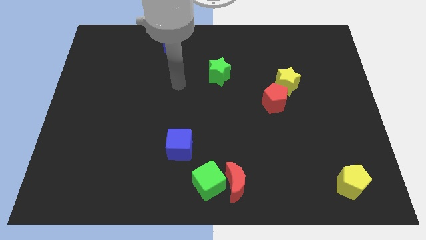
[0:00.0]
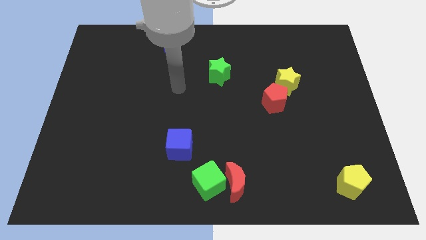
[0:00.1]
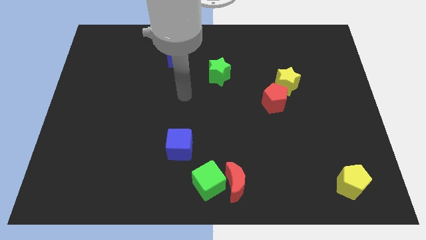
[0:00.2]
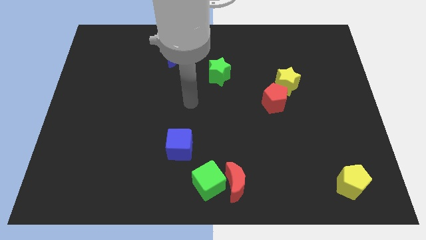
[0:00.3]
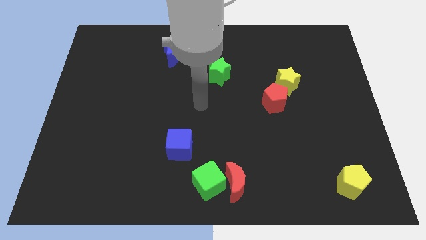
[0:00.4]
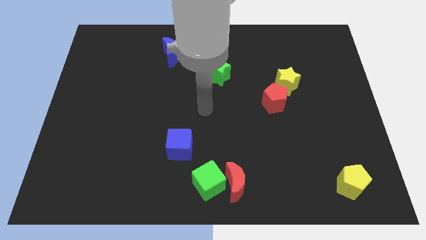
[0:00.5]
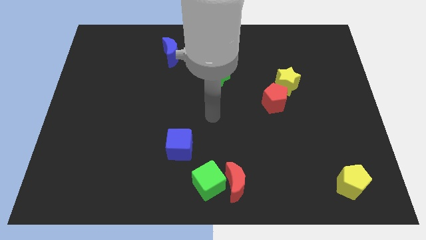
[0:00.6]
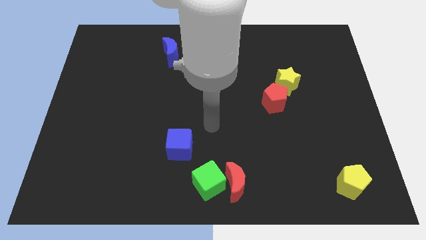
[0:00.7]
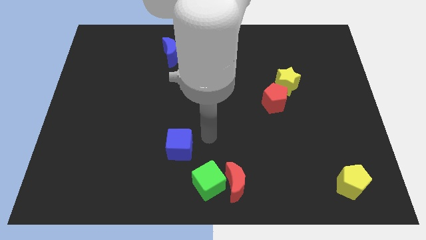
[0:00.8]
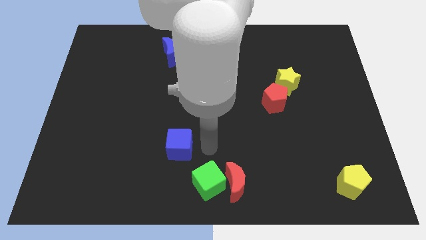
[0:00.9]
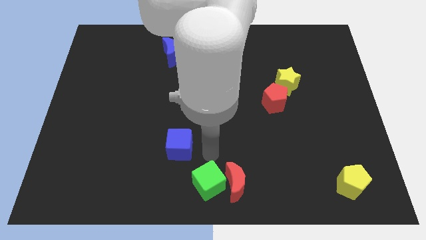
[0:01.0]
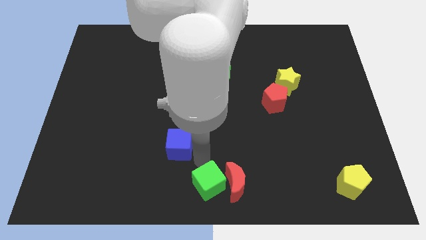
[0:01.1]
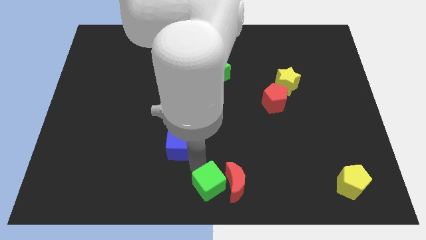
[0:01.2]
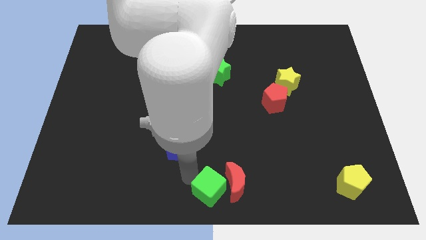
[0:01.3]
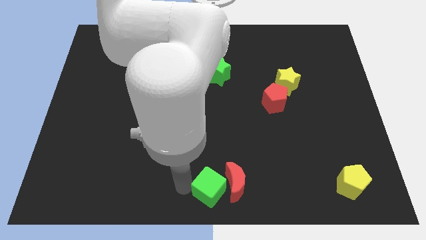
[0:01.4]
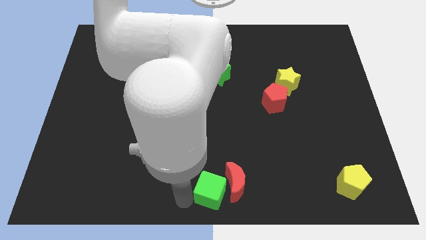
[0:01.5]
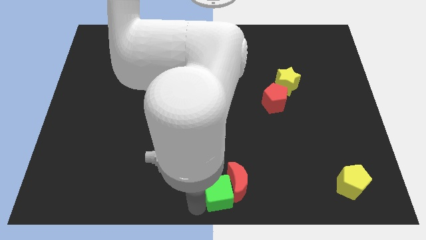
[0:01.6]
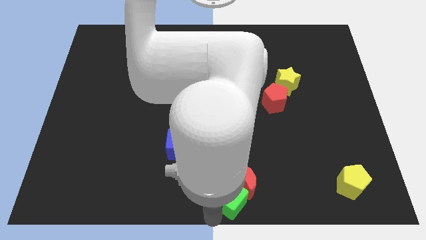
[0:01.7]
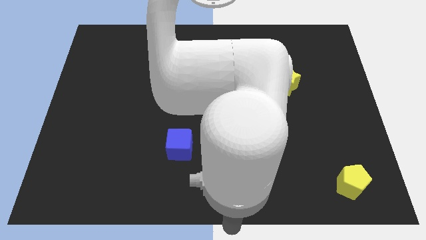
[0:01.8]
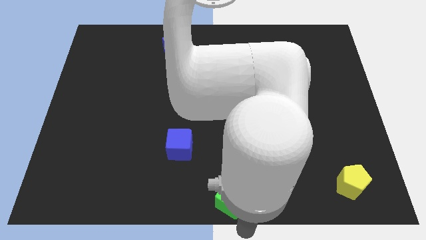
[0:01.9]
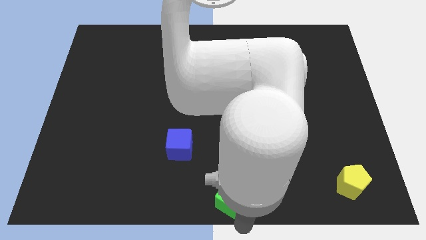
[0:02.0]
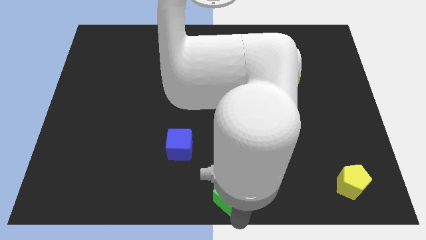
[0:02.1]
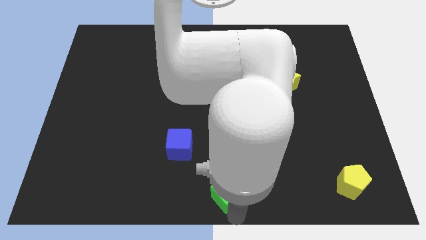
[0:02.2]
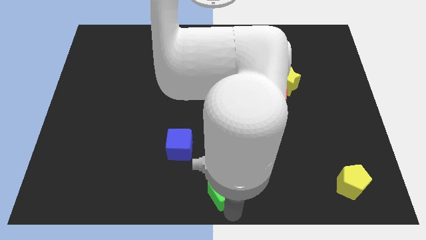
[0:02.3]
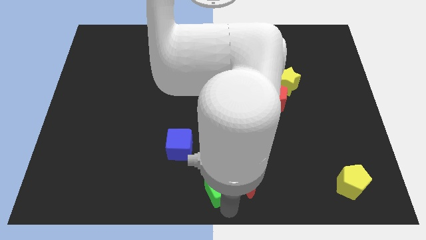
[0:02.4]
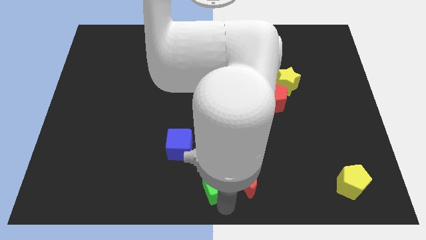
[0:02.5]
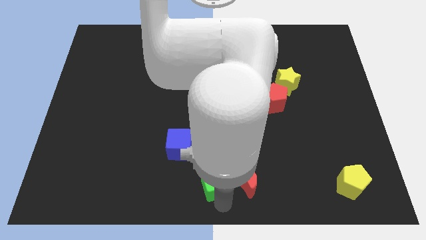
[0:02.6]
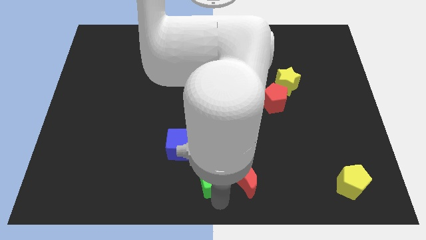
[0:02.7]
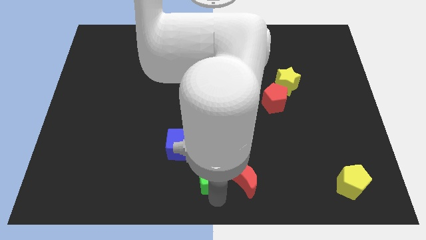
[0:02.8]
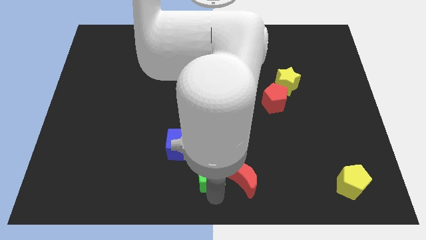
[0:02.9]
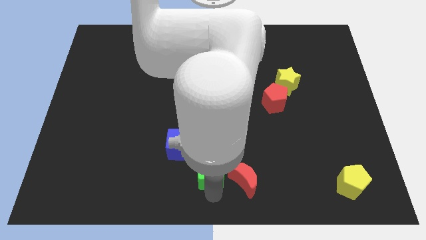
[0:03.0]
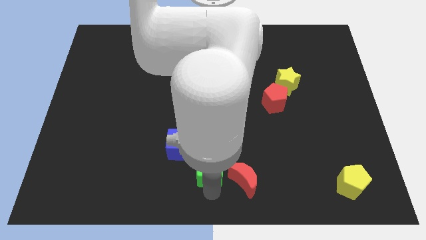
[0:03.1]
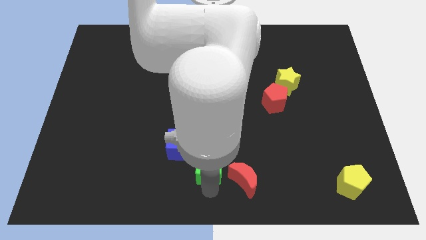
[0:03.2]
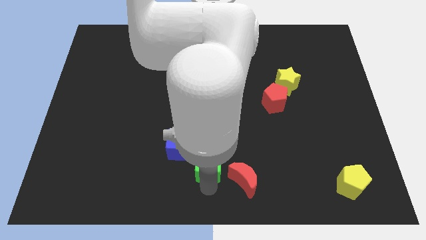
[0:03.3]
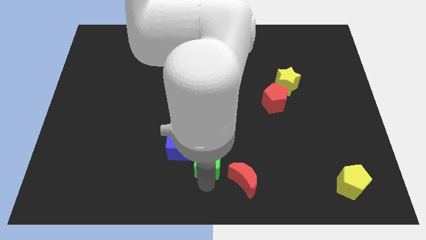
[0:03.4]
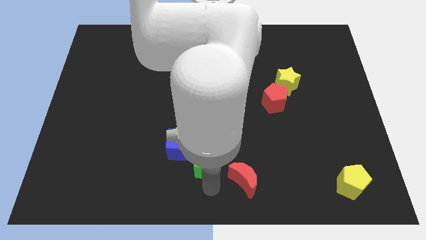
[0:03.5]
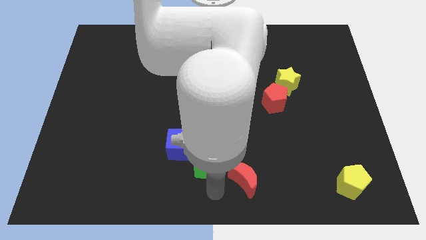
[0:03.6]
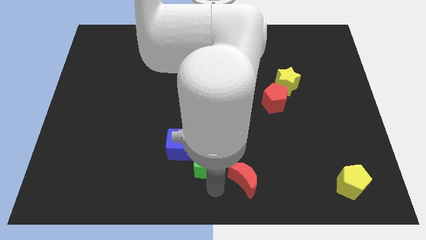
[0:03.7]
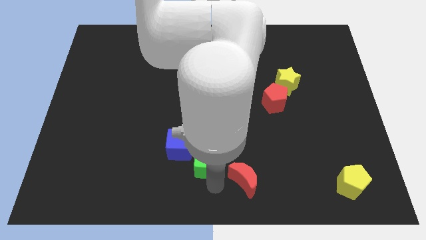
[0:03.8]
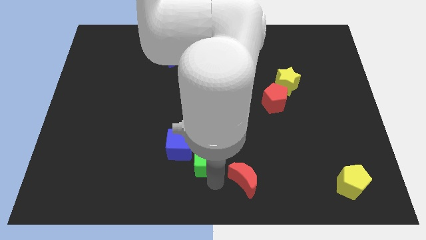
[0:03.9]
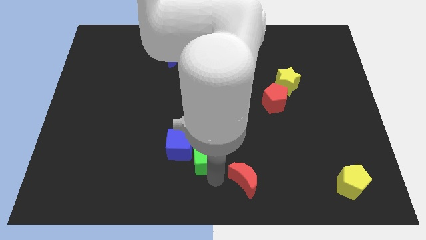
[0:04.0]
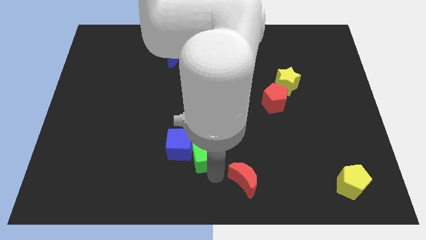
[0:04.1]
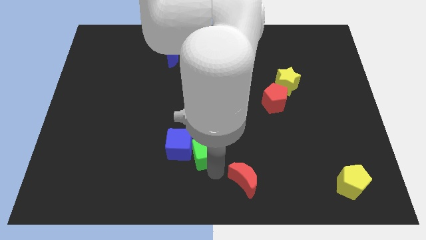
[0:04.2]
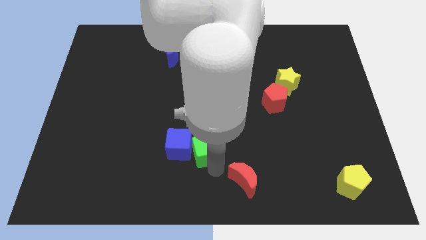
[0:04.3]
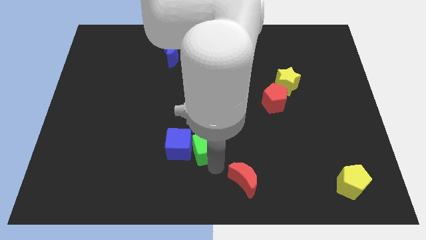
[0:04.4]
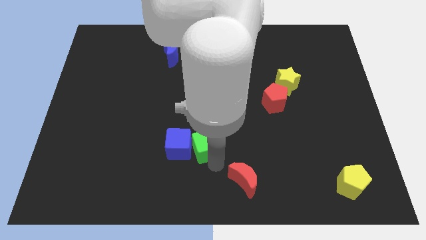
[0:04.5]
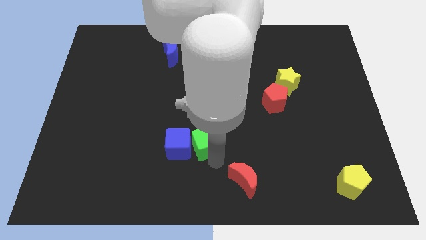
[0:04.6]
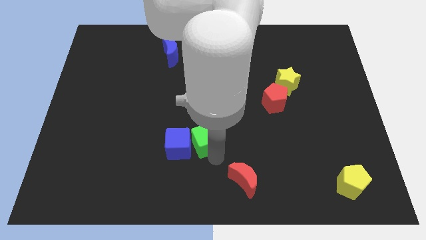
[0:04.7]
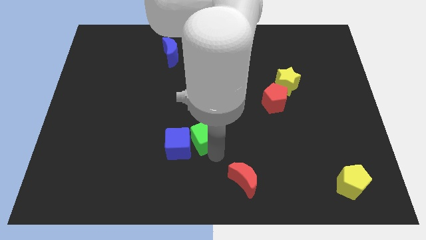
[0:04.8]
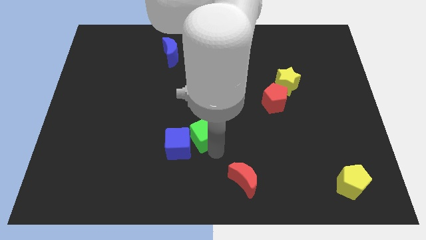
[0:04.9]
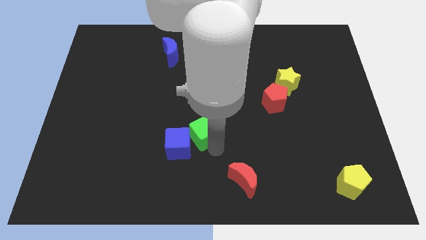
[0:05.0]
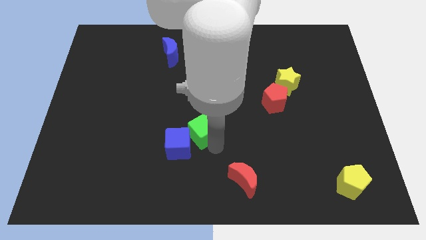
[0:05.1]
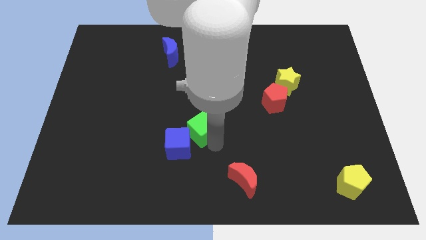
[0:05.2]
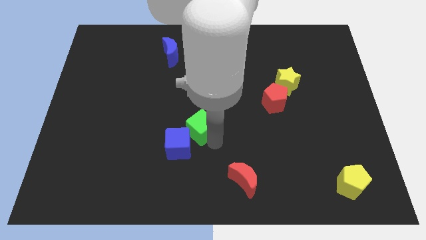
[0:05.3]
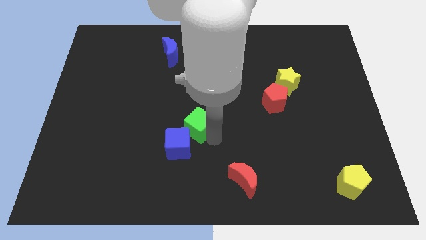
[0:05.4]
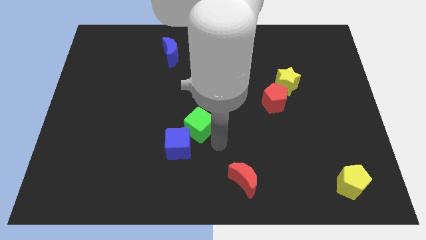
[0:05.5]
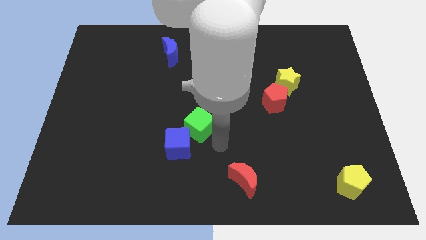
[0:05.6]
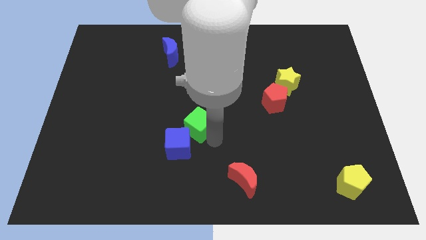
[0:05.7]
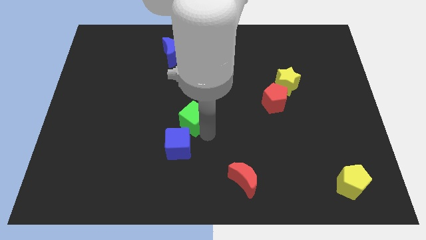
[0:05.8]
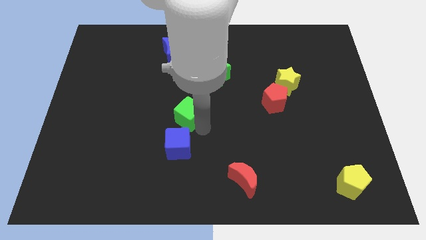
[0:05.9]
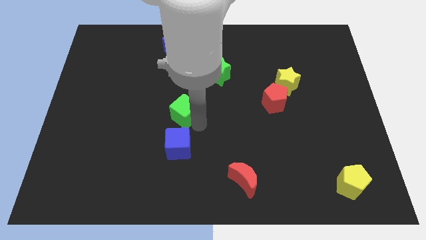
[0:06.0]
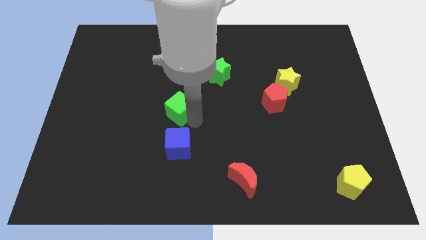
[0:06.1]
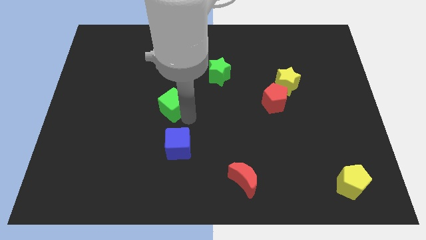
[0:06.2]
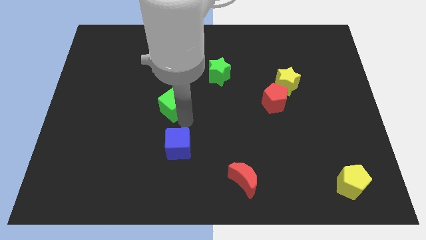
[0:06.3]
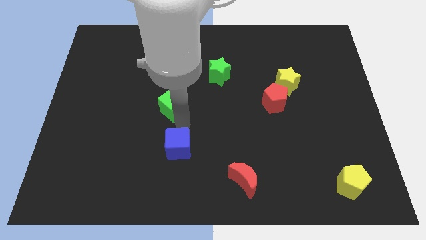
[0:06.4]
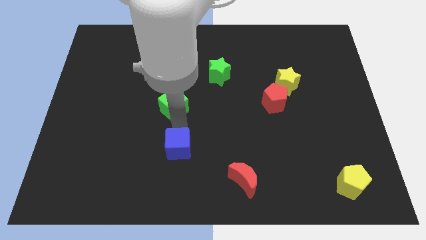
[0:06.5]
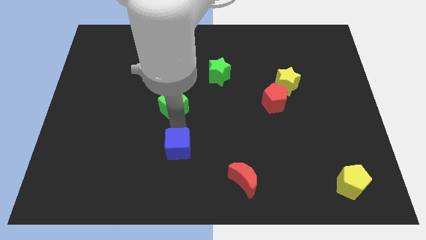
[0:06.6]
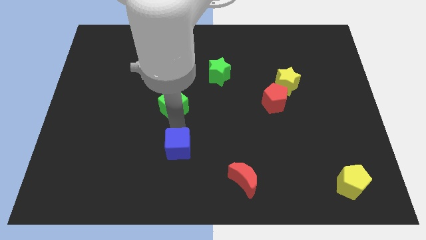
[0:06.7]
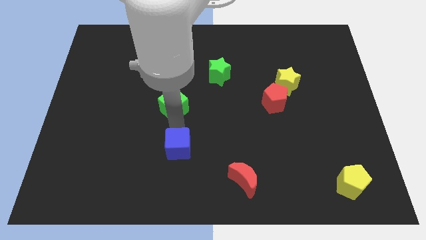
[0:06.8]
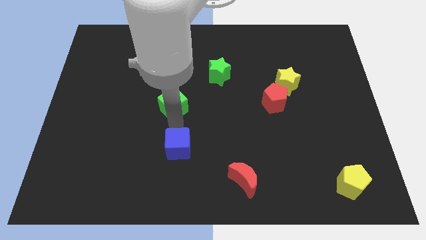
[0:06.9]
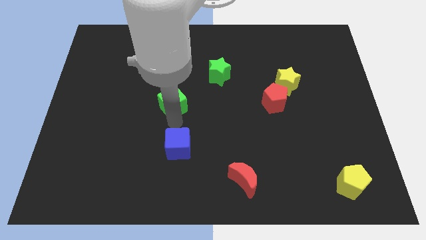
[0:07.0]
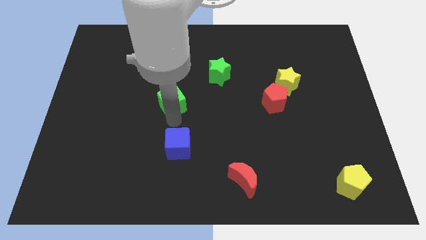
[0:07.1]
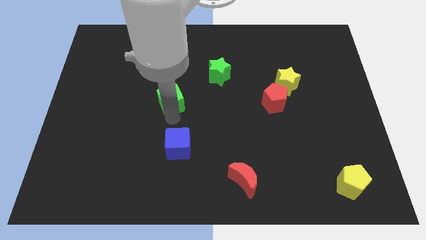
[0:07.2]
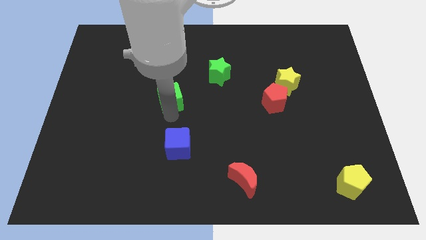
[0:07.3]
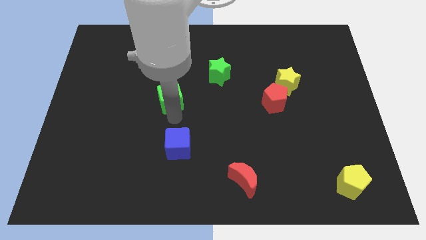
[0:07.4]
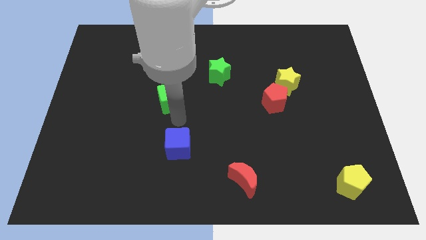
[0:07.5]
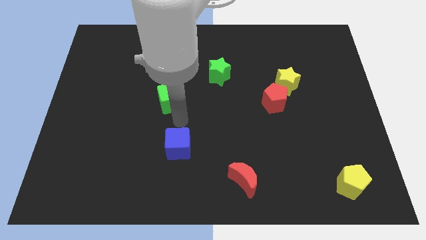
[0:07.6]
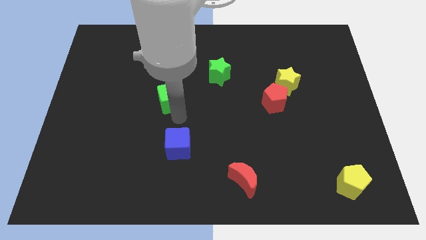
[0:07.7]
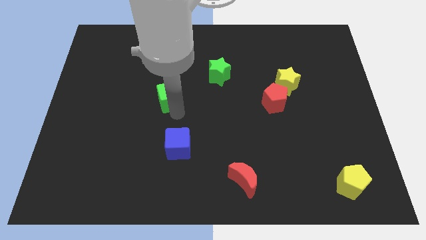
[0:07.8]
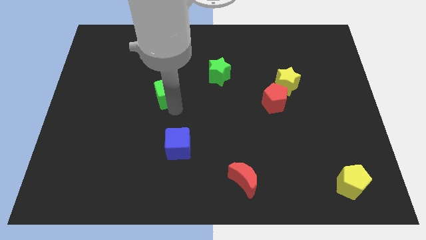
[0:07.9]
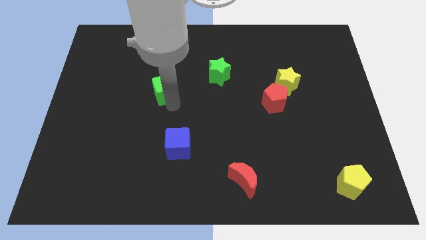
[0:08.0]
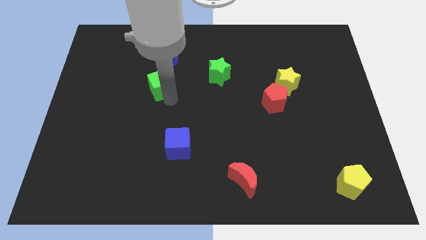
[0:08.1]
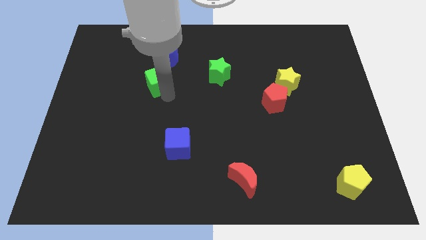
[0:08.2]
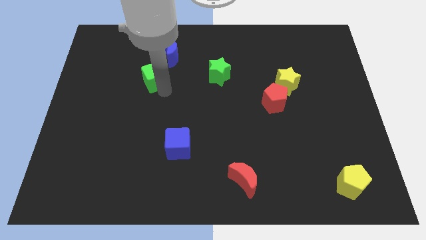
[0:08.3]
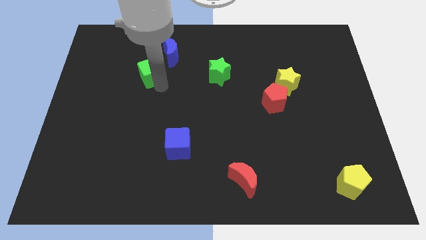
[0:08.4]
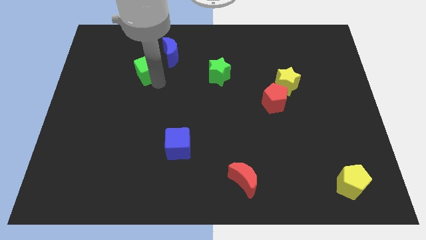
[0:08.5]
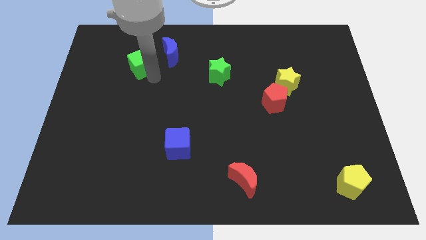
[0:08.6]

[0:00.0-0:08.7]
push the green cube left of the blue moon
